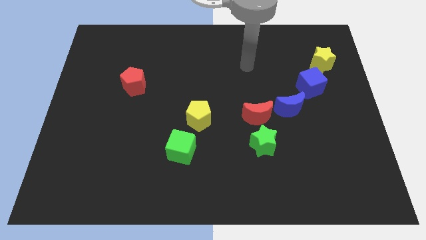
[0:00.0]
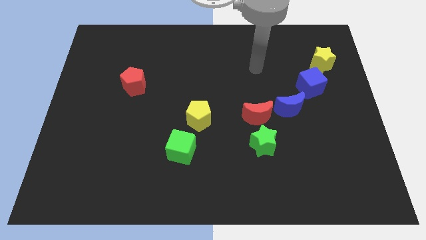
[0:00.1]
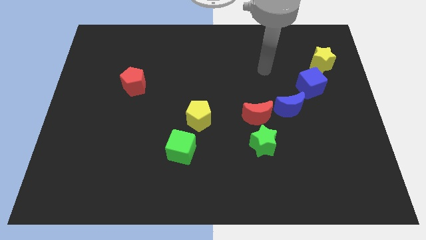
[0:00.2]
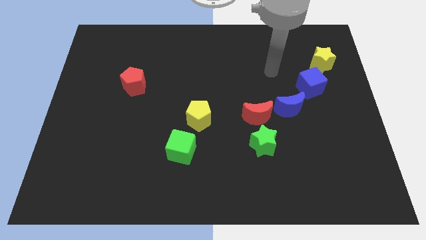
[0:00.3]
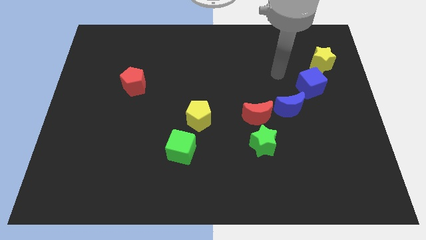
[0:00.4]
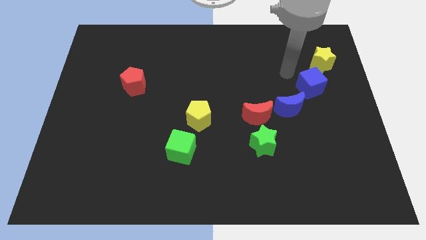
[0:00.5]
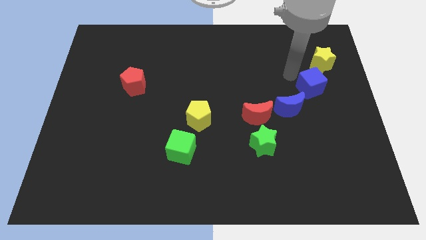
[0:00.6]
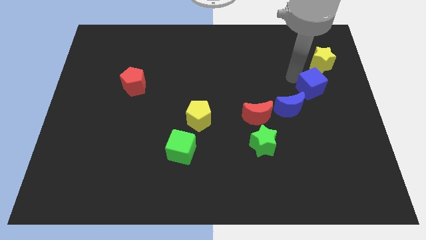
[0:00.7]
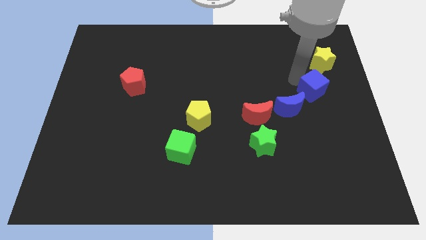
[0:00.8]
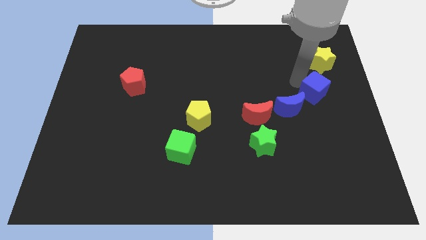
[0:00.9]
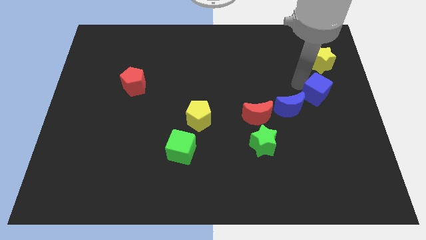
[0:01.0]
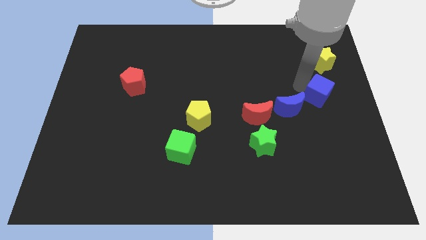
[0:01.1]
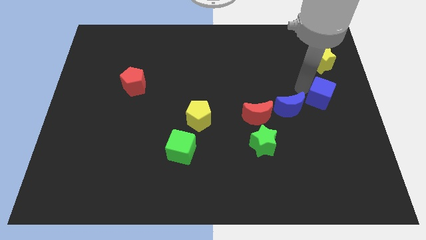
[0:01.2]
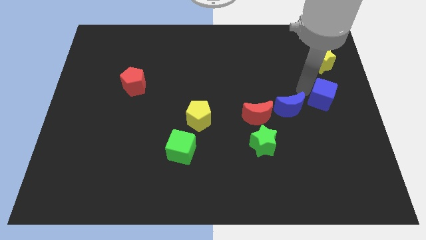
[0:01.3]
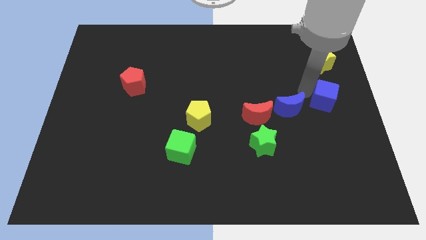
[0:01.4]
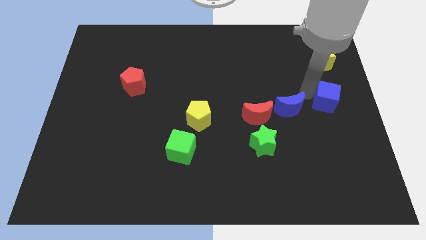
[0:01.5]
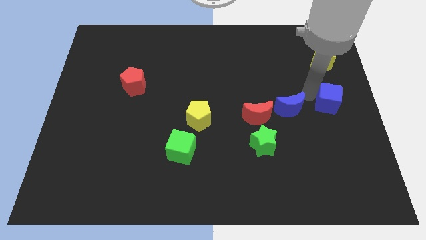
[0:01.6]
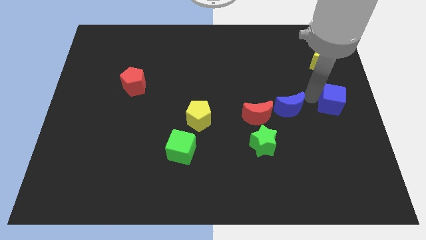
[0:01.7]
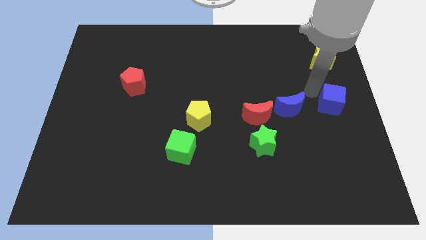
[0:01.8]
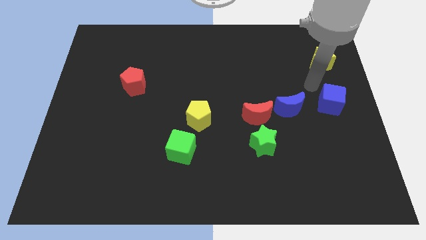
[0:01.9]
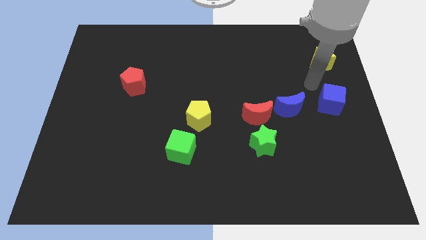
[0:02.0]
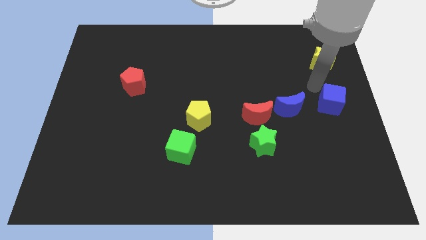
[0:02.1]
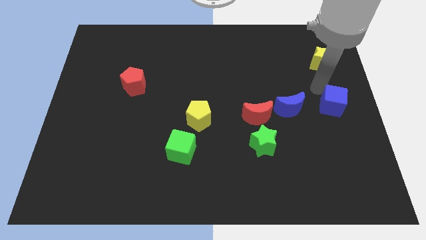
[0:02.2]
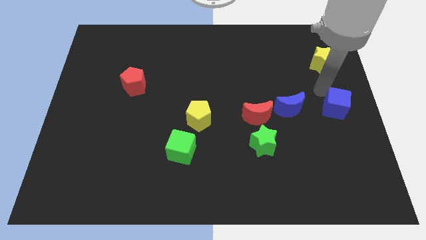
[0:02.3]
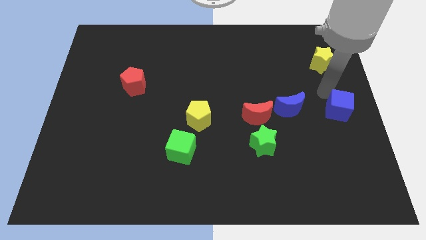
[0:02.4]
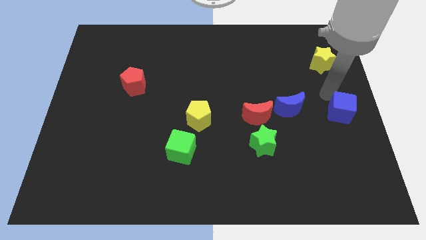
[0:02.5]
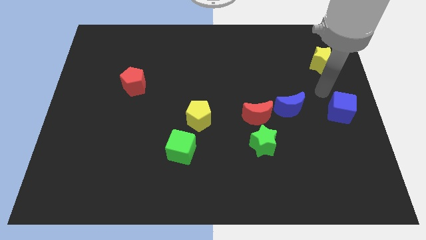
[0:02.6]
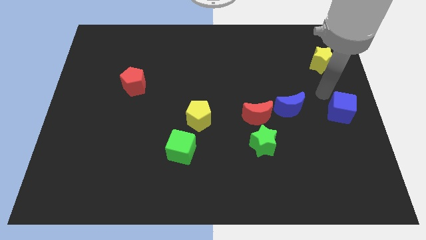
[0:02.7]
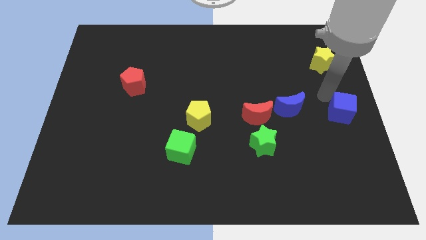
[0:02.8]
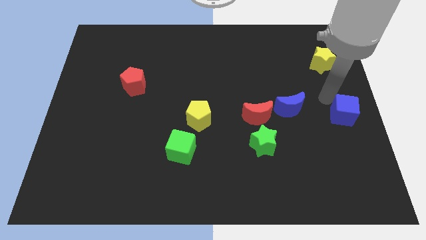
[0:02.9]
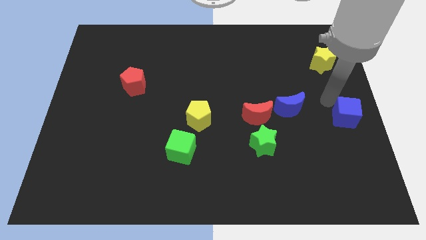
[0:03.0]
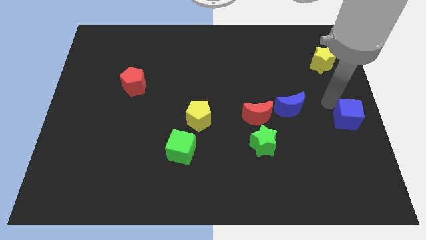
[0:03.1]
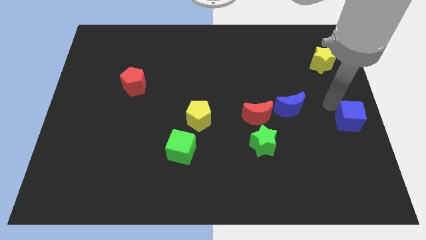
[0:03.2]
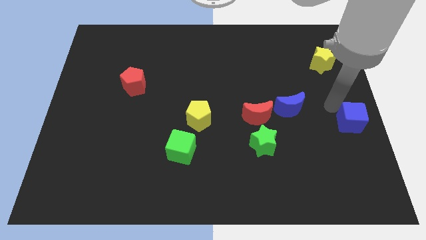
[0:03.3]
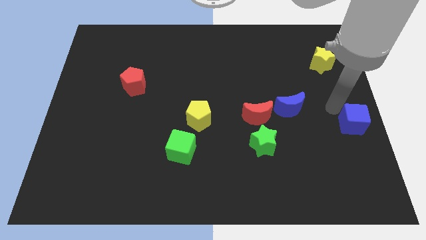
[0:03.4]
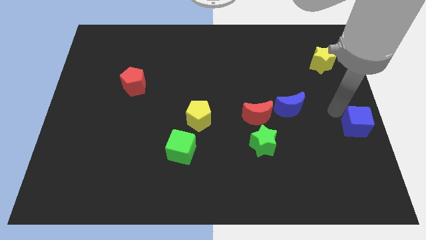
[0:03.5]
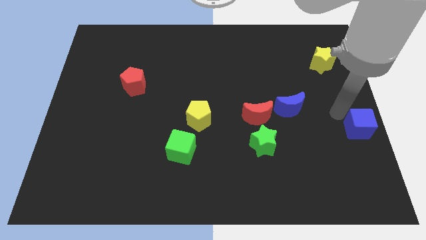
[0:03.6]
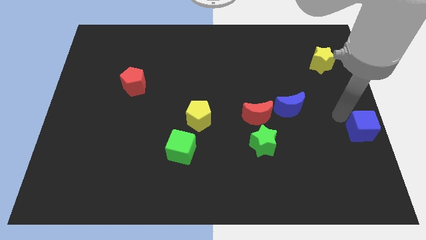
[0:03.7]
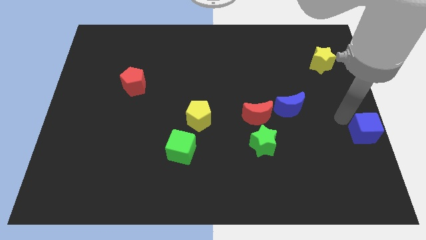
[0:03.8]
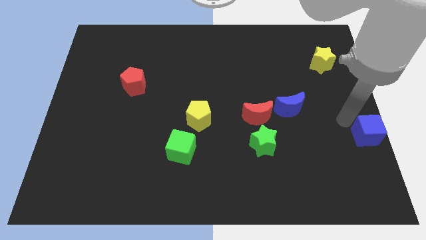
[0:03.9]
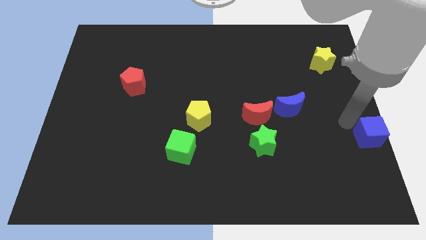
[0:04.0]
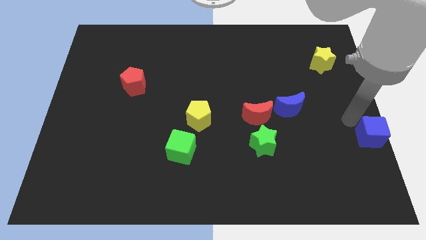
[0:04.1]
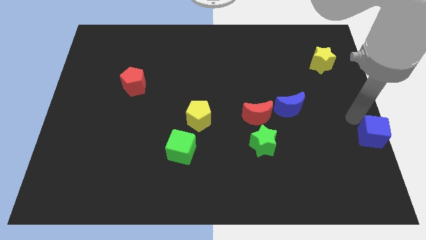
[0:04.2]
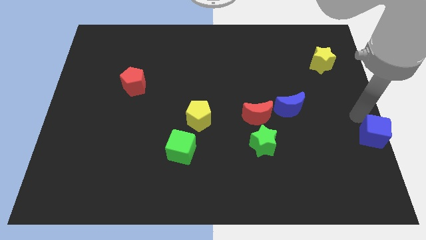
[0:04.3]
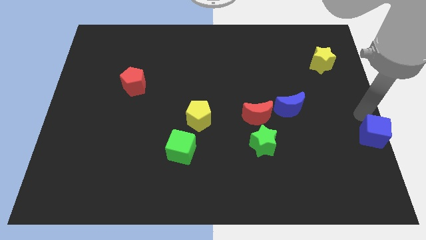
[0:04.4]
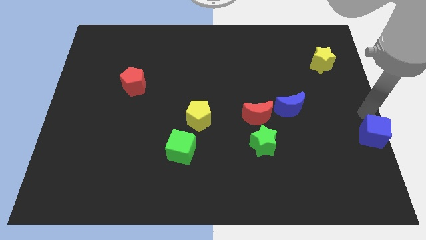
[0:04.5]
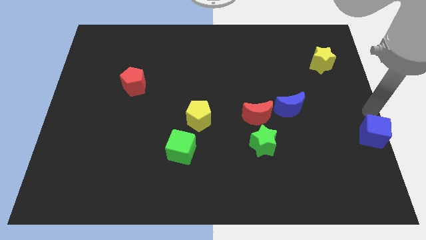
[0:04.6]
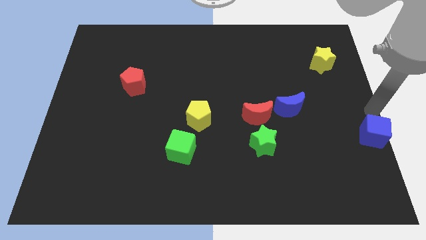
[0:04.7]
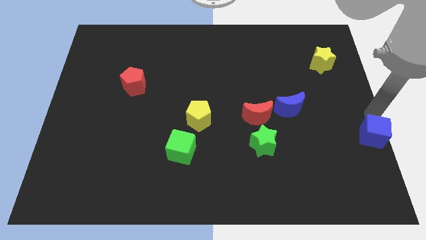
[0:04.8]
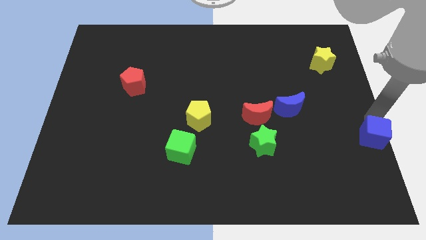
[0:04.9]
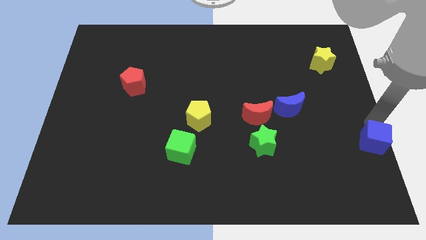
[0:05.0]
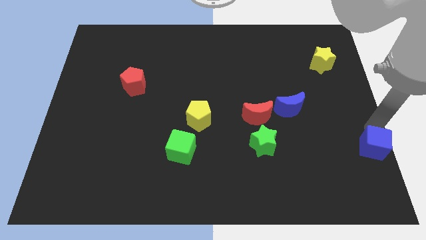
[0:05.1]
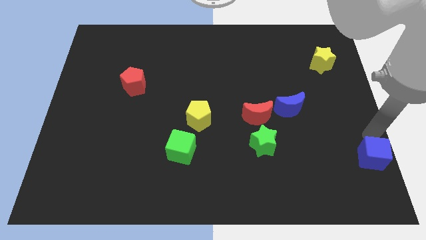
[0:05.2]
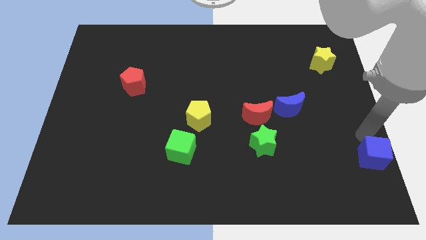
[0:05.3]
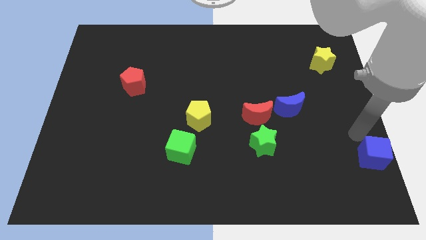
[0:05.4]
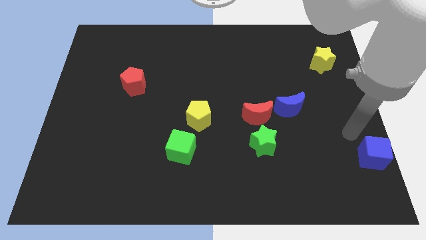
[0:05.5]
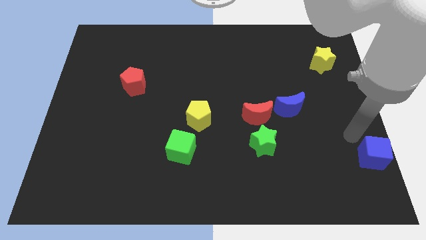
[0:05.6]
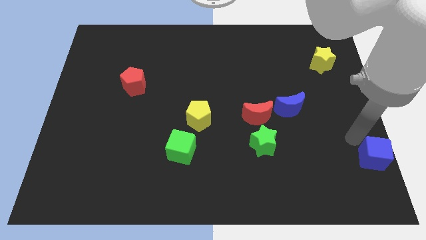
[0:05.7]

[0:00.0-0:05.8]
move the blue cube to the bottom right of the board
